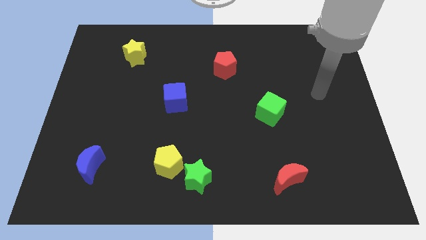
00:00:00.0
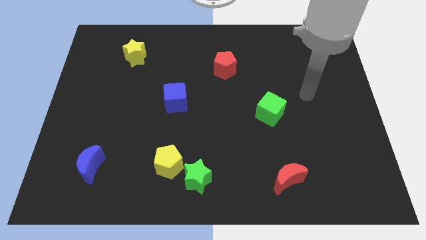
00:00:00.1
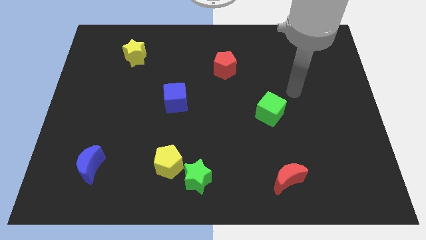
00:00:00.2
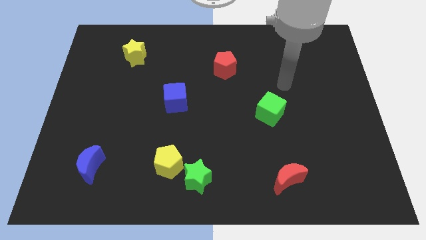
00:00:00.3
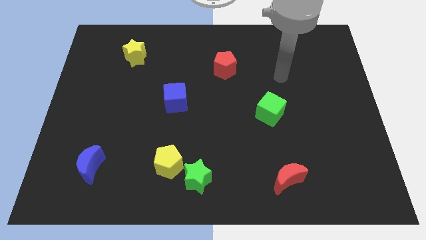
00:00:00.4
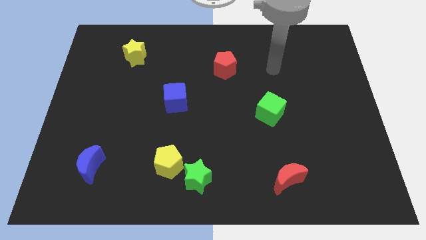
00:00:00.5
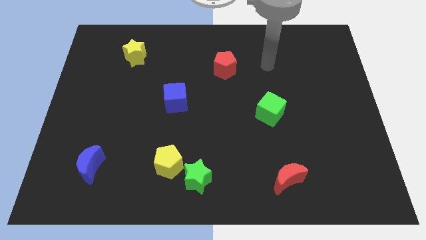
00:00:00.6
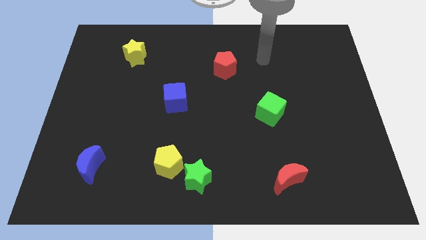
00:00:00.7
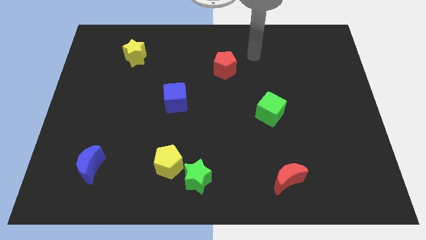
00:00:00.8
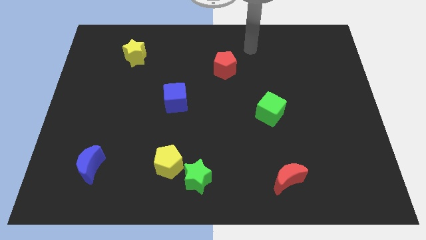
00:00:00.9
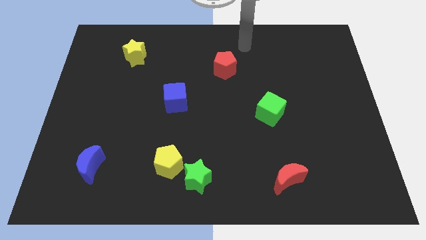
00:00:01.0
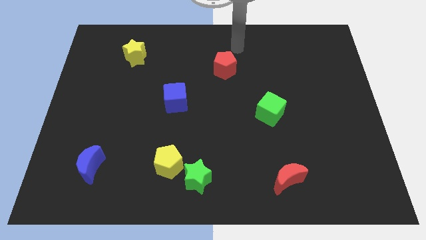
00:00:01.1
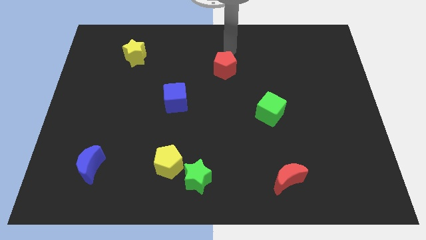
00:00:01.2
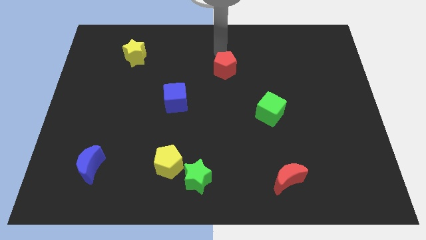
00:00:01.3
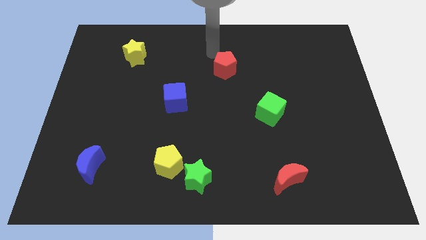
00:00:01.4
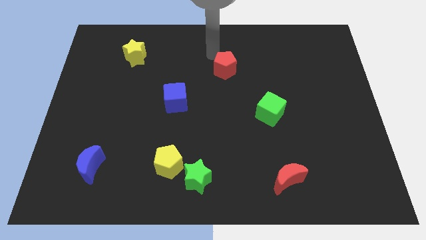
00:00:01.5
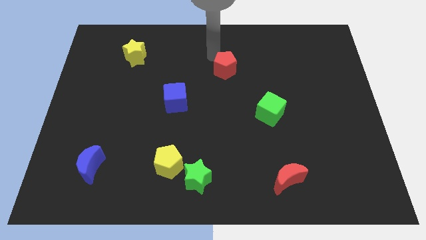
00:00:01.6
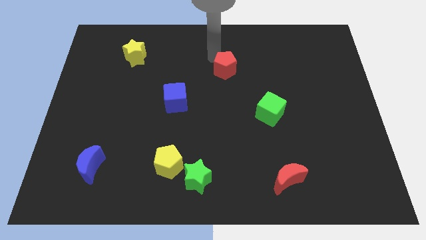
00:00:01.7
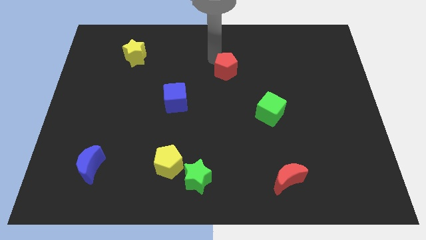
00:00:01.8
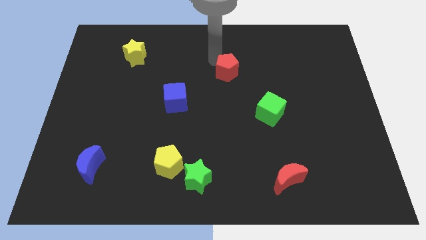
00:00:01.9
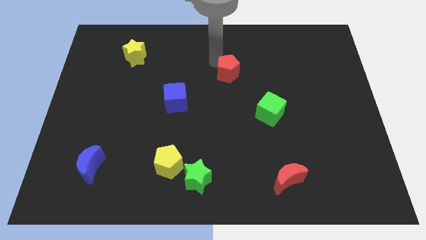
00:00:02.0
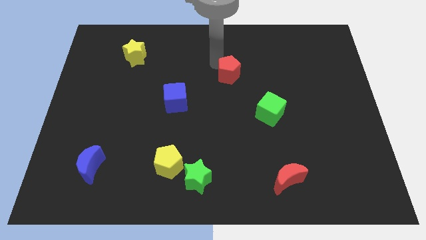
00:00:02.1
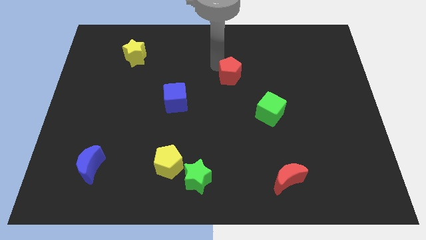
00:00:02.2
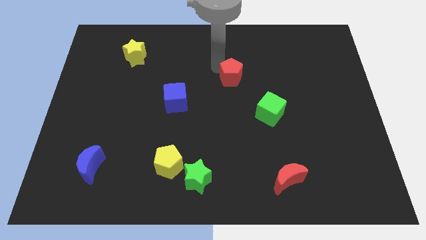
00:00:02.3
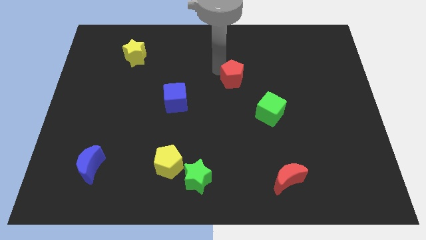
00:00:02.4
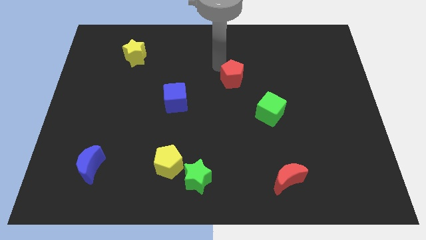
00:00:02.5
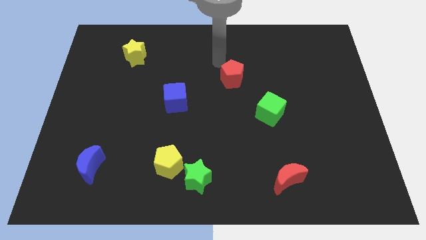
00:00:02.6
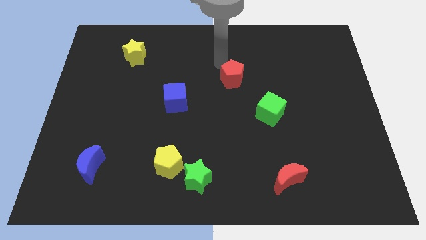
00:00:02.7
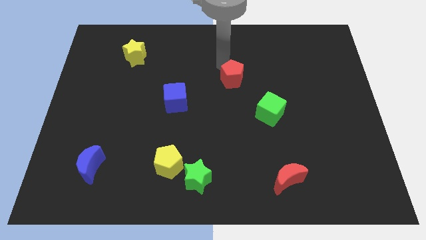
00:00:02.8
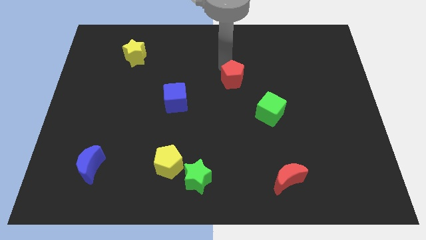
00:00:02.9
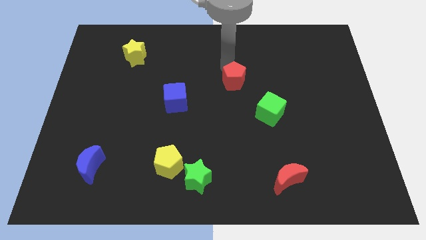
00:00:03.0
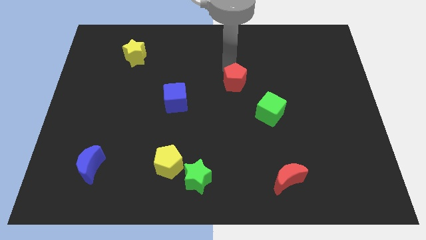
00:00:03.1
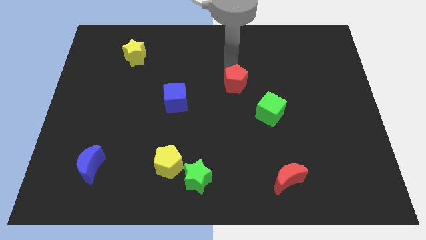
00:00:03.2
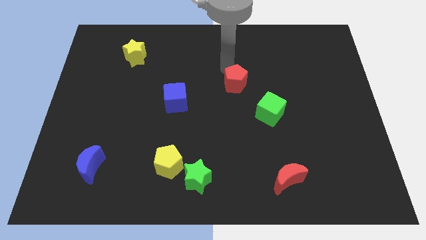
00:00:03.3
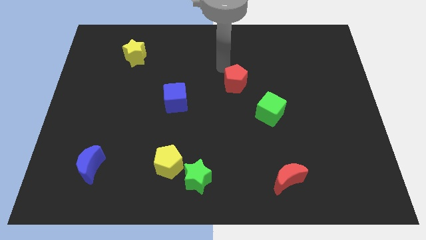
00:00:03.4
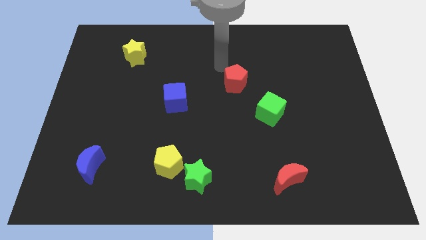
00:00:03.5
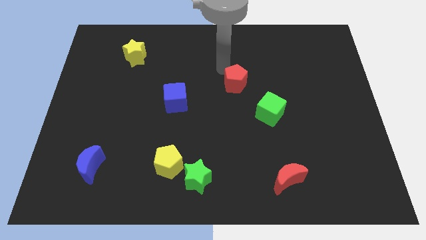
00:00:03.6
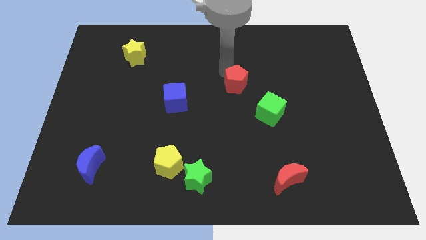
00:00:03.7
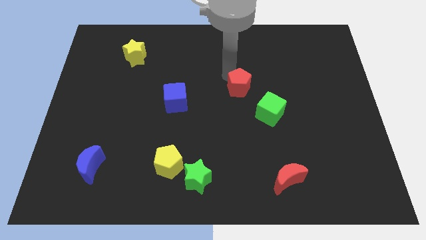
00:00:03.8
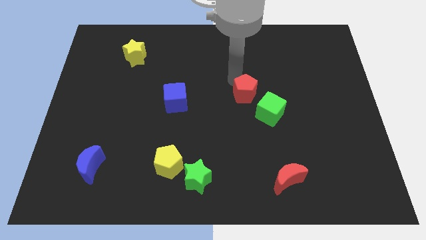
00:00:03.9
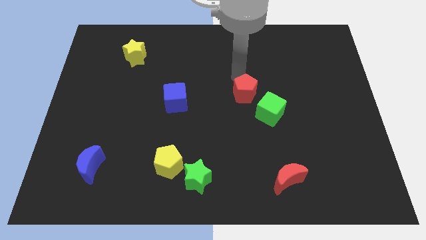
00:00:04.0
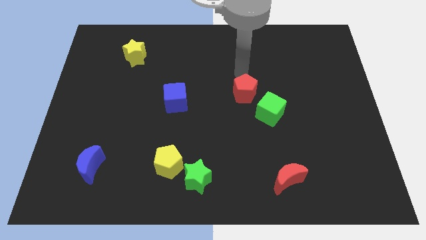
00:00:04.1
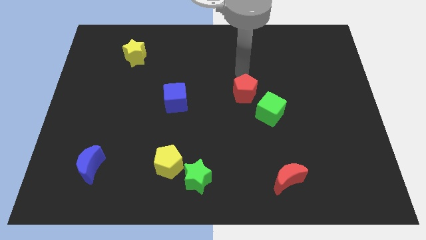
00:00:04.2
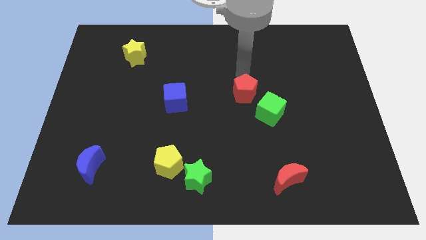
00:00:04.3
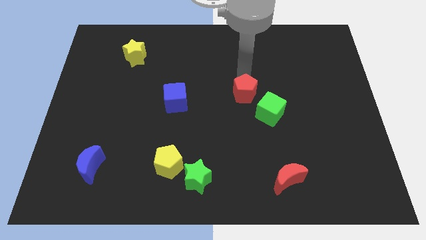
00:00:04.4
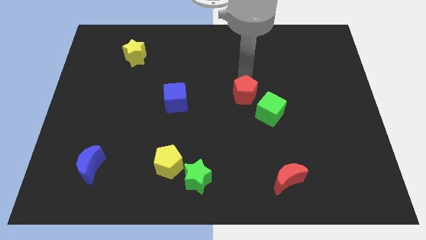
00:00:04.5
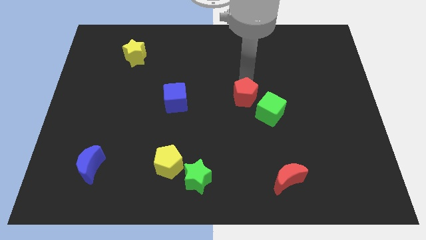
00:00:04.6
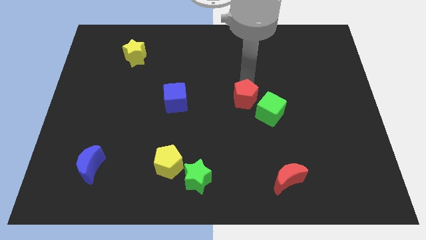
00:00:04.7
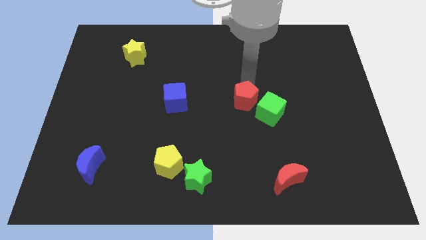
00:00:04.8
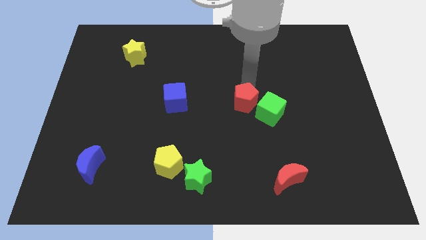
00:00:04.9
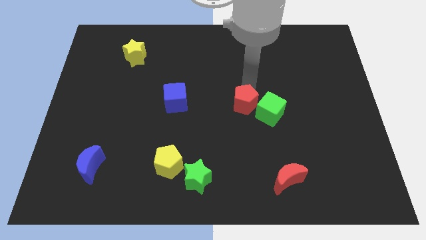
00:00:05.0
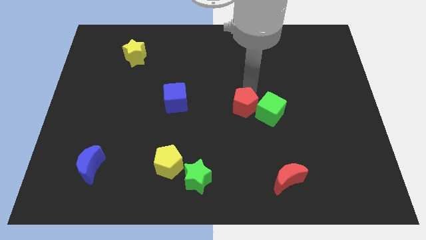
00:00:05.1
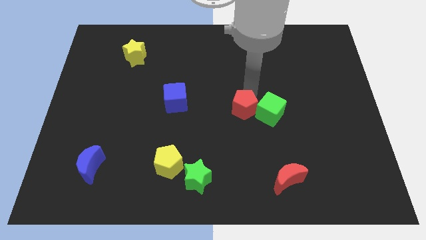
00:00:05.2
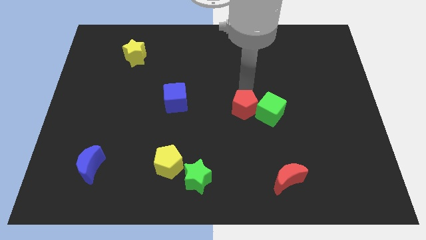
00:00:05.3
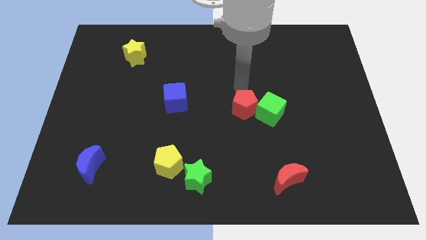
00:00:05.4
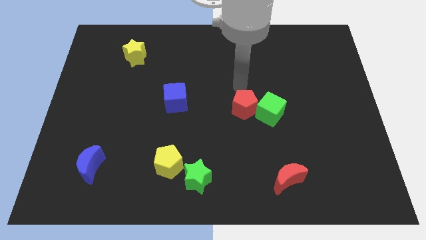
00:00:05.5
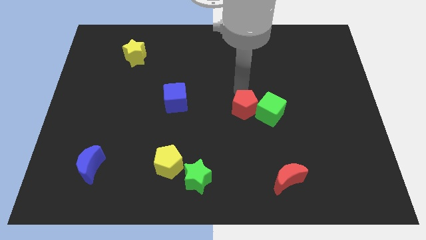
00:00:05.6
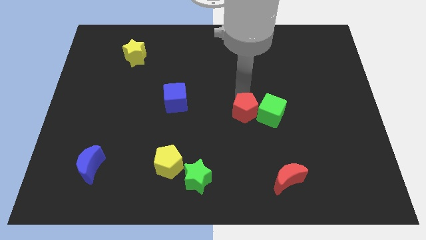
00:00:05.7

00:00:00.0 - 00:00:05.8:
push the red pentagon to the bottom left side of the green cube

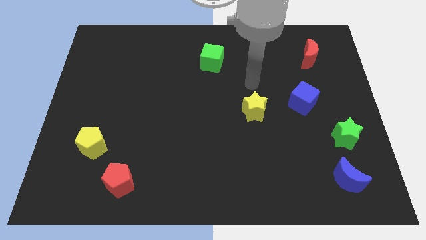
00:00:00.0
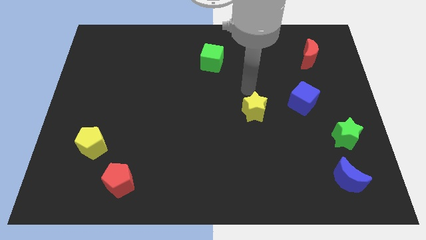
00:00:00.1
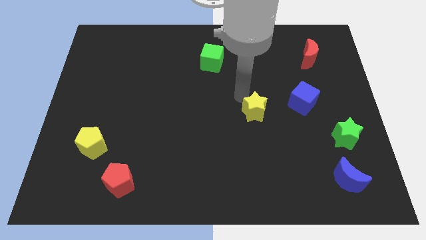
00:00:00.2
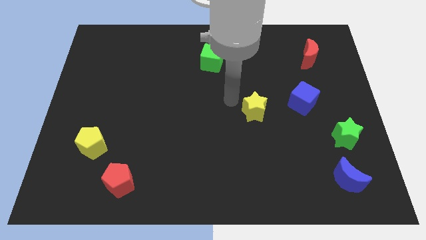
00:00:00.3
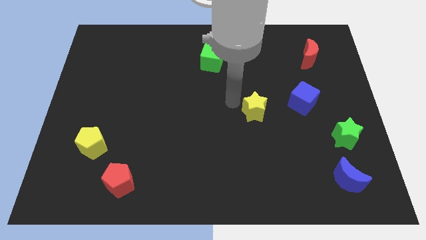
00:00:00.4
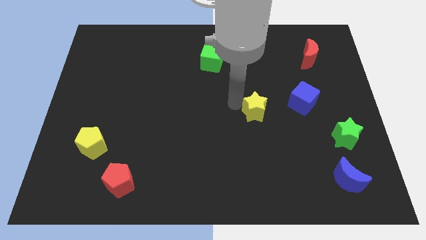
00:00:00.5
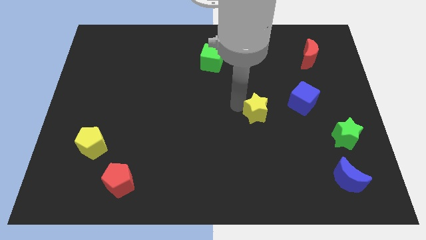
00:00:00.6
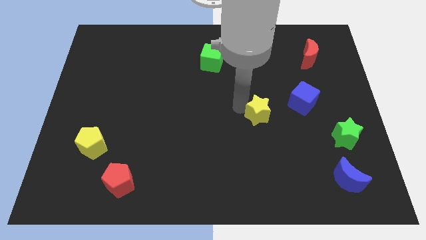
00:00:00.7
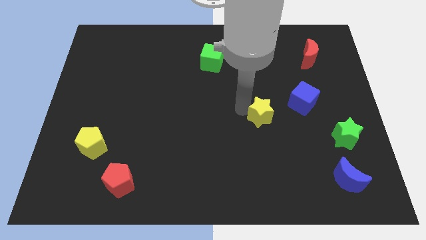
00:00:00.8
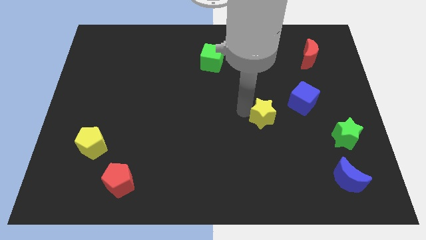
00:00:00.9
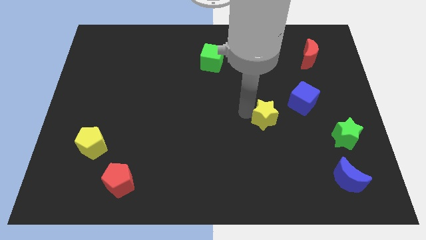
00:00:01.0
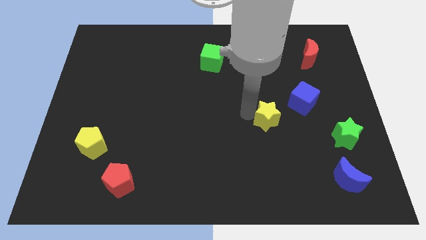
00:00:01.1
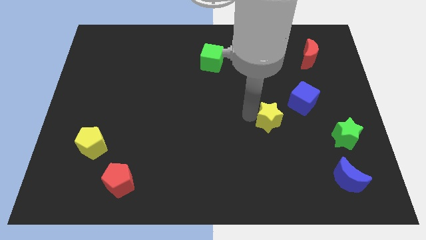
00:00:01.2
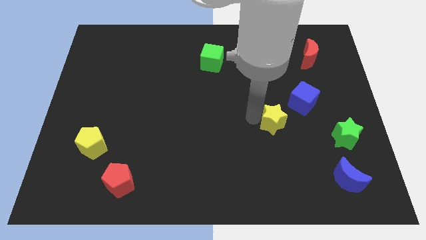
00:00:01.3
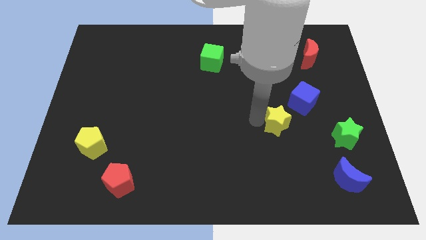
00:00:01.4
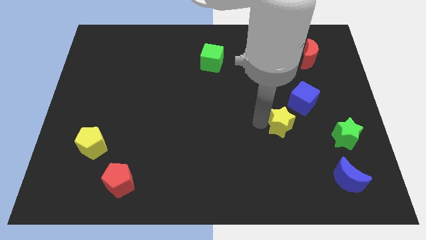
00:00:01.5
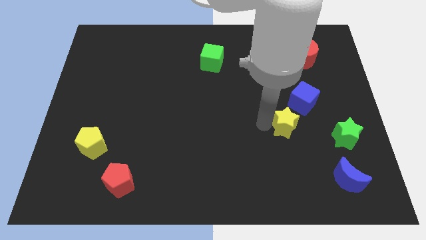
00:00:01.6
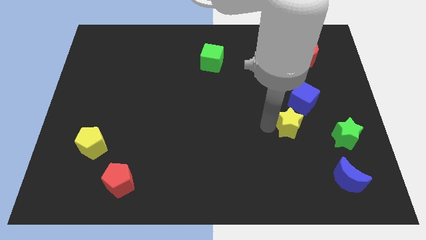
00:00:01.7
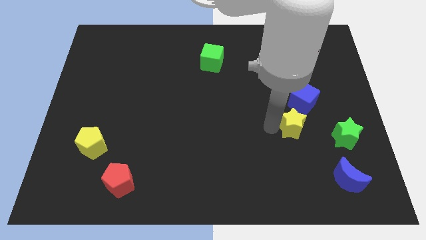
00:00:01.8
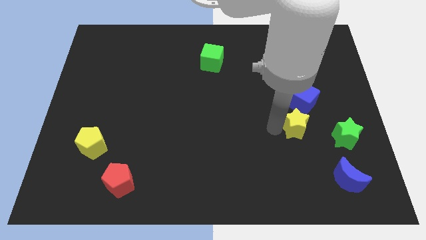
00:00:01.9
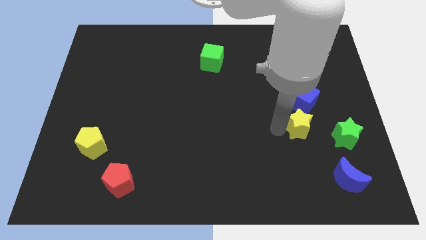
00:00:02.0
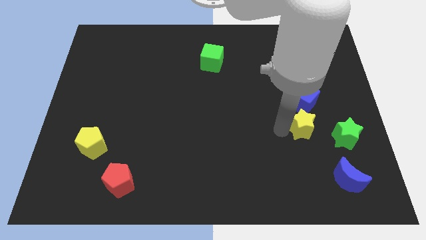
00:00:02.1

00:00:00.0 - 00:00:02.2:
move the yellow star diagonally up and to the left of the green star
